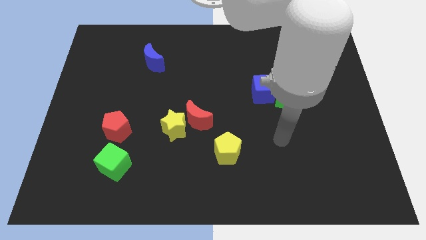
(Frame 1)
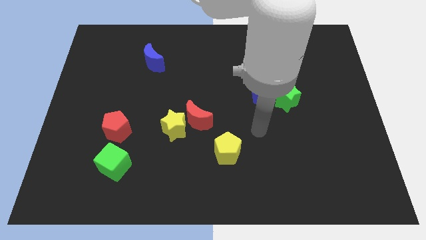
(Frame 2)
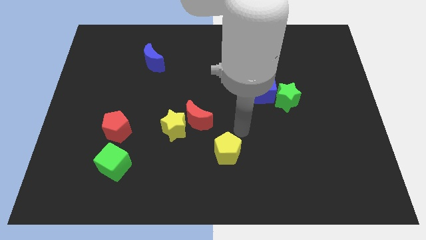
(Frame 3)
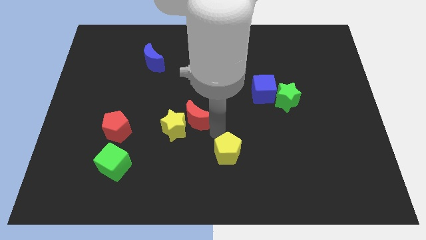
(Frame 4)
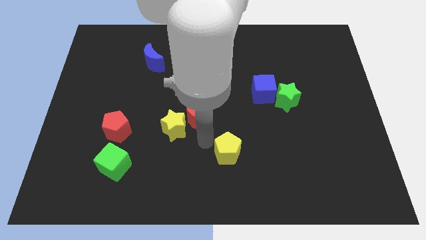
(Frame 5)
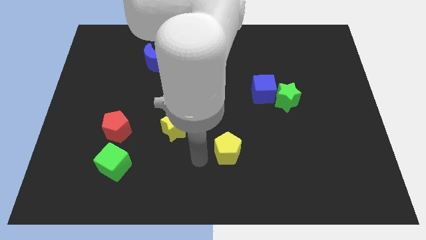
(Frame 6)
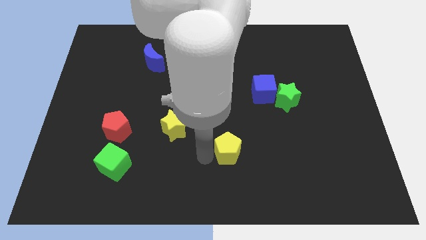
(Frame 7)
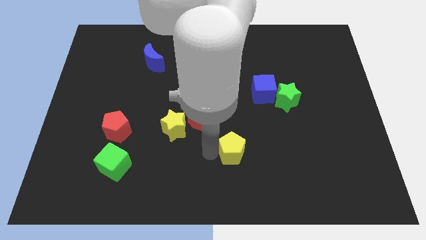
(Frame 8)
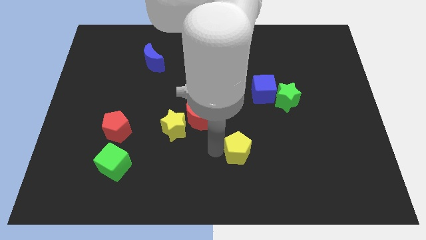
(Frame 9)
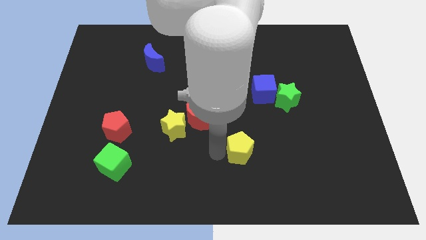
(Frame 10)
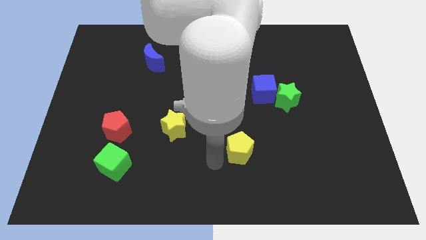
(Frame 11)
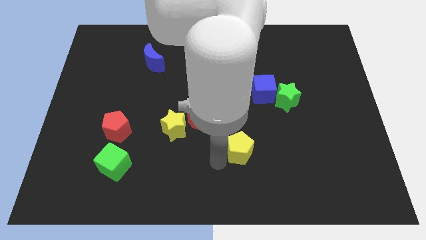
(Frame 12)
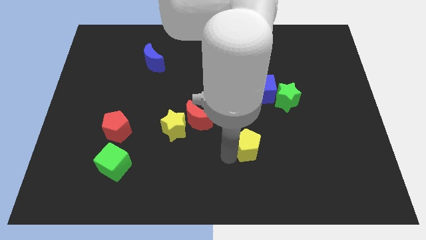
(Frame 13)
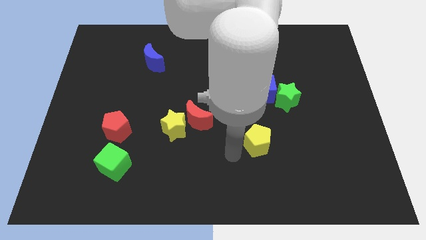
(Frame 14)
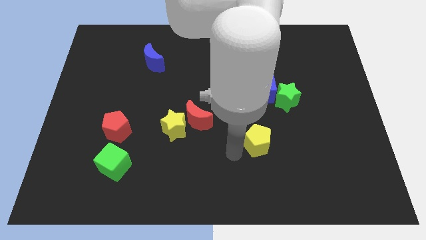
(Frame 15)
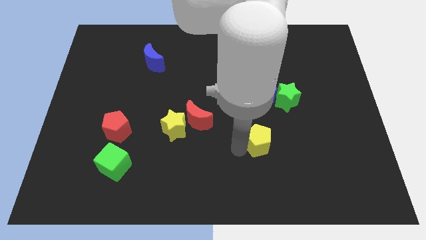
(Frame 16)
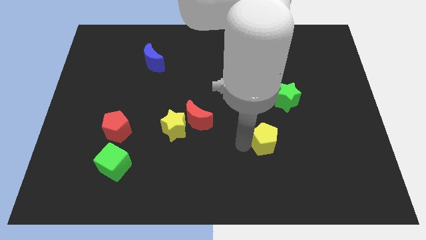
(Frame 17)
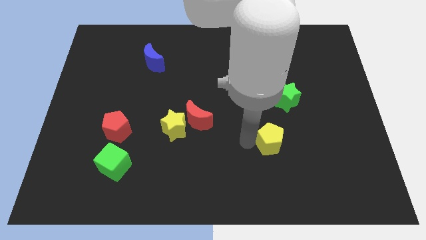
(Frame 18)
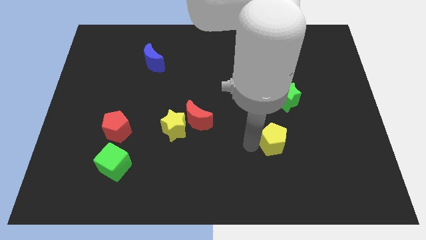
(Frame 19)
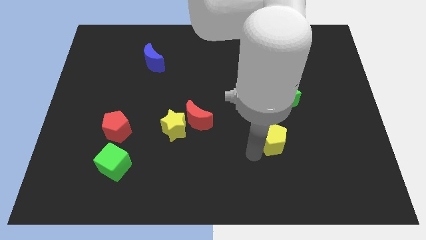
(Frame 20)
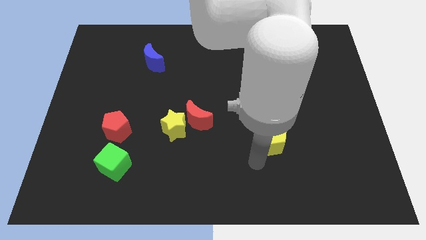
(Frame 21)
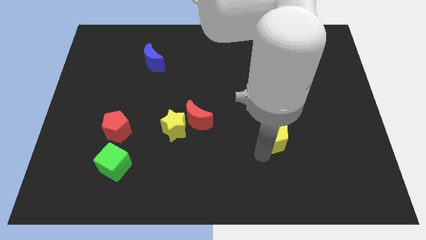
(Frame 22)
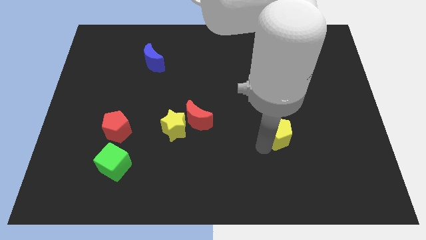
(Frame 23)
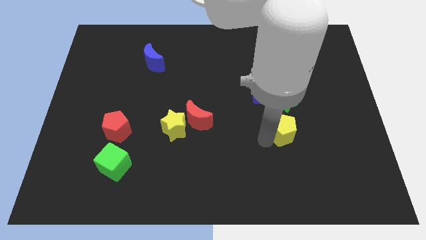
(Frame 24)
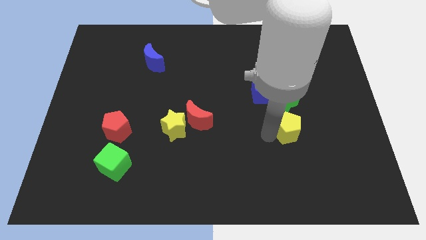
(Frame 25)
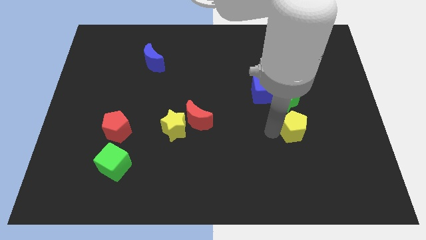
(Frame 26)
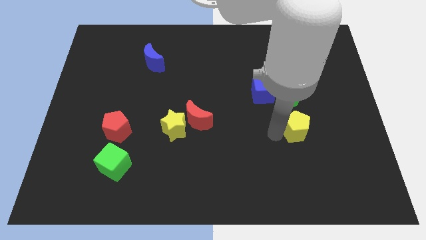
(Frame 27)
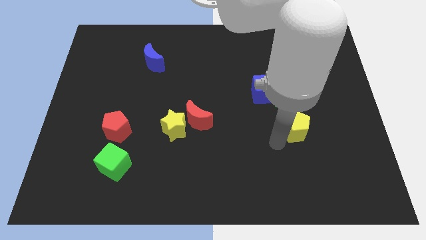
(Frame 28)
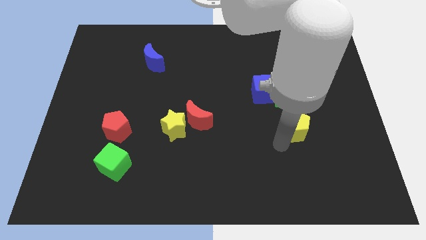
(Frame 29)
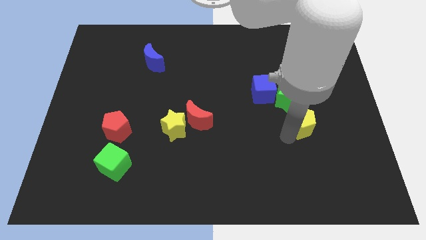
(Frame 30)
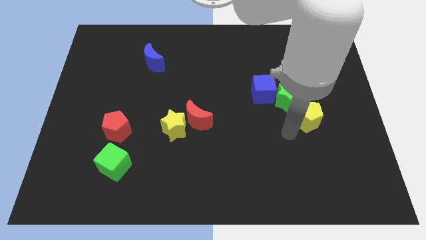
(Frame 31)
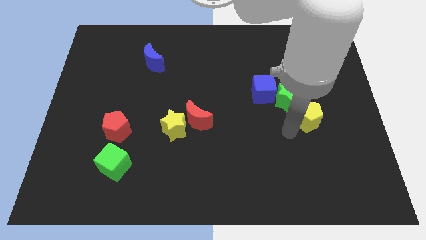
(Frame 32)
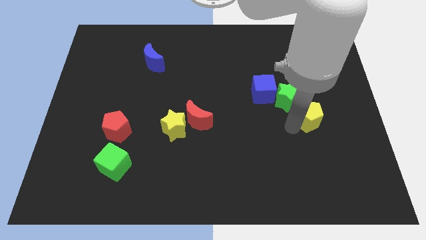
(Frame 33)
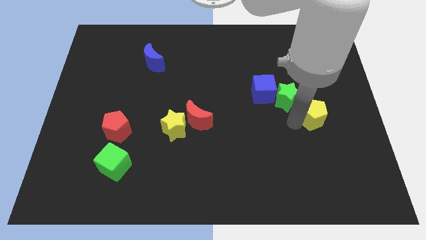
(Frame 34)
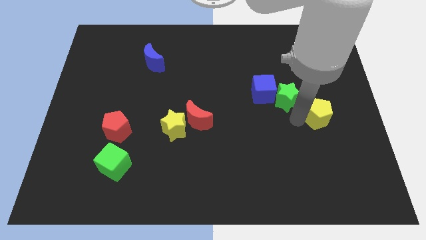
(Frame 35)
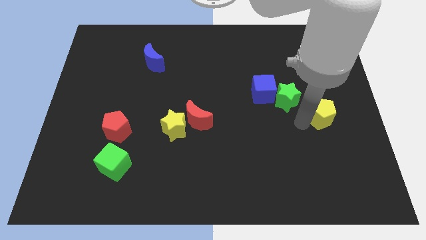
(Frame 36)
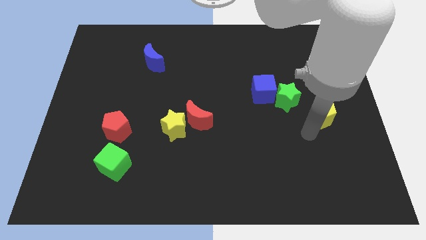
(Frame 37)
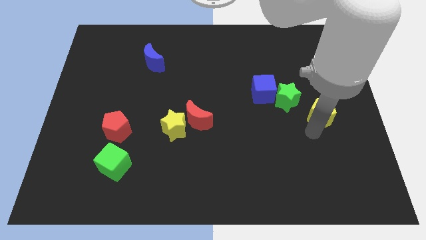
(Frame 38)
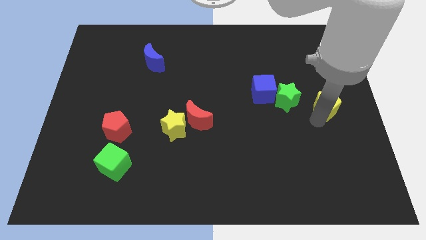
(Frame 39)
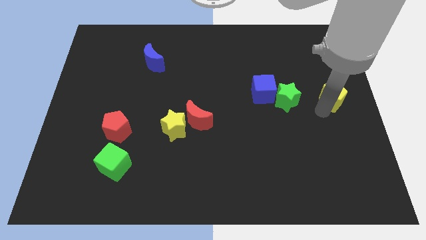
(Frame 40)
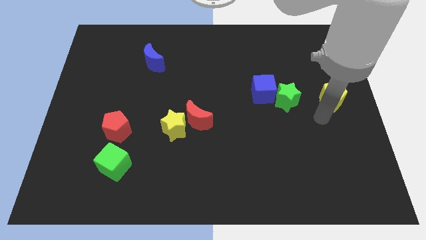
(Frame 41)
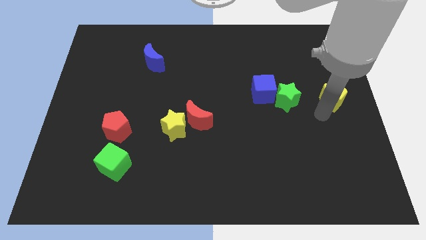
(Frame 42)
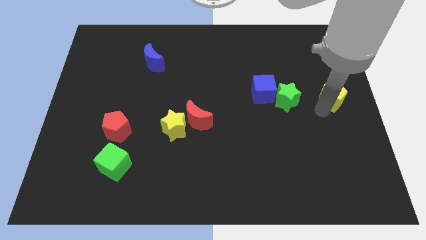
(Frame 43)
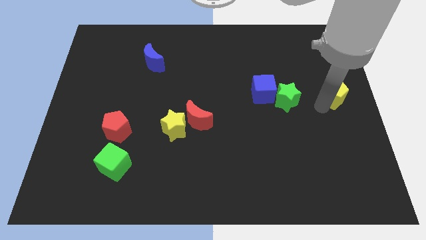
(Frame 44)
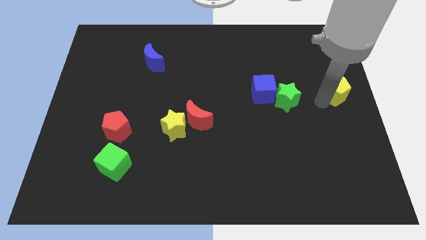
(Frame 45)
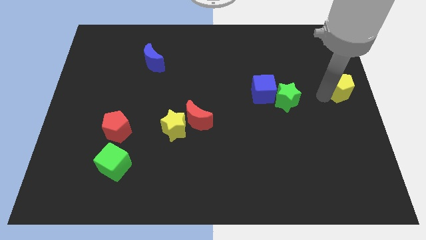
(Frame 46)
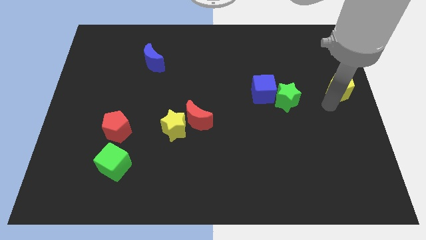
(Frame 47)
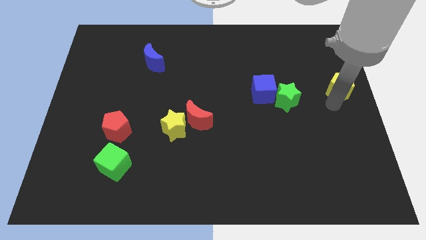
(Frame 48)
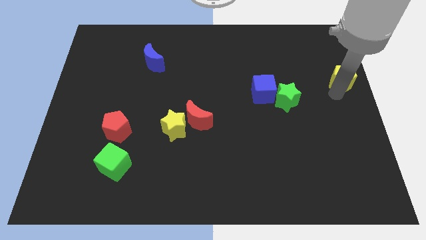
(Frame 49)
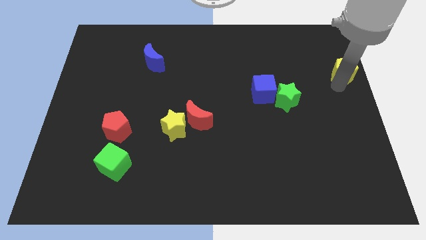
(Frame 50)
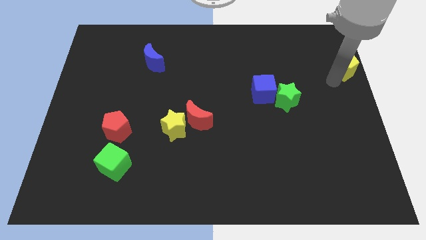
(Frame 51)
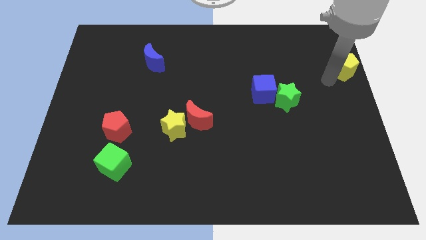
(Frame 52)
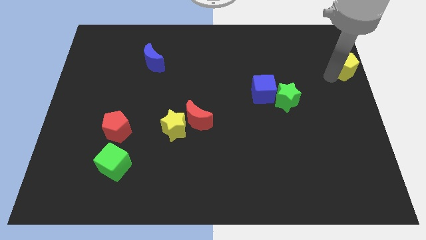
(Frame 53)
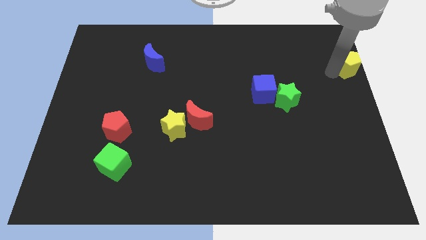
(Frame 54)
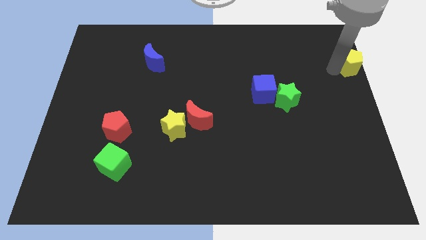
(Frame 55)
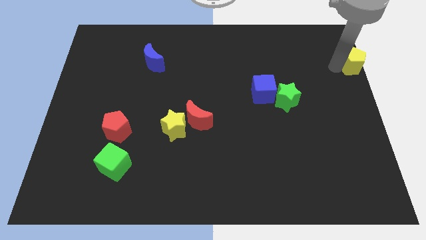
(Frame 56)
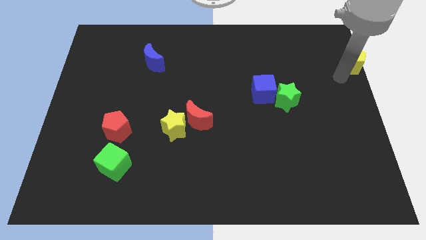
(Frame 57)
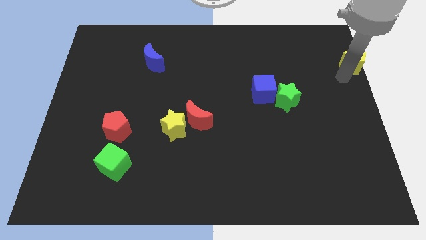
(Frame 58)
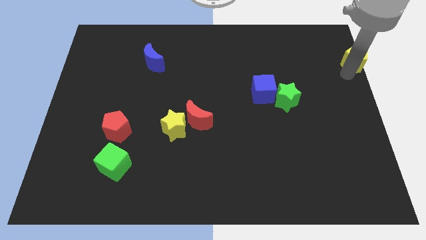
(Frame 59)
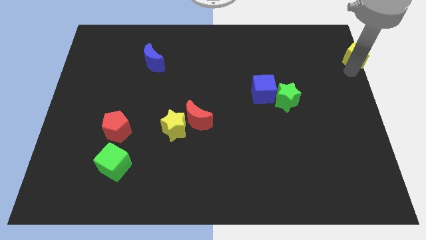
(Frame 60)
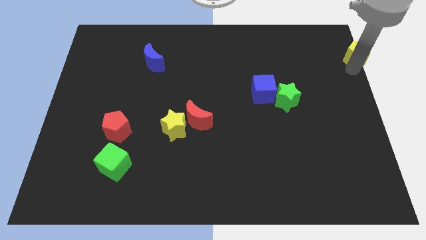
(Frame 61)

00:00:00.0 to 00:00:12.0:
put the yellow pentagon to the top right
